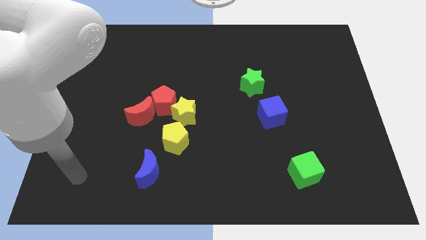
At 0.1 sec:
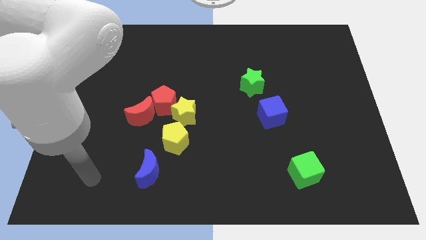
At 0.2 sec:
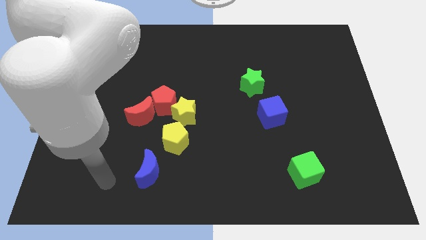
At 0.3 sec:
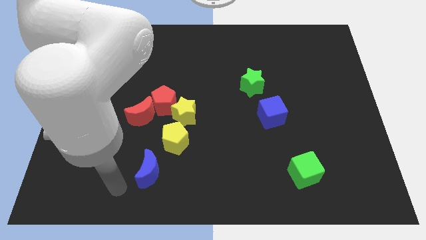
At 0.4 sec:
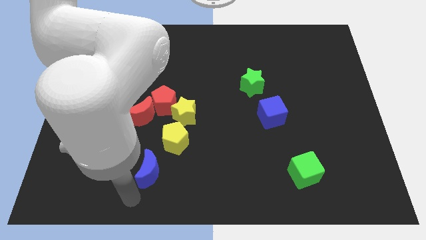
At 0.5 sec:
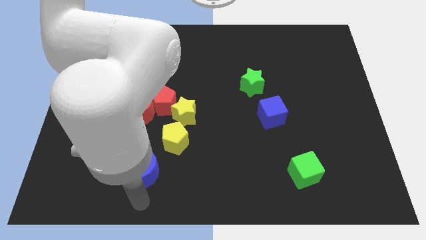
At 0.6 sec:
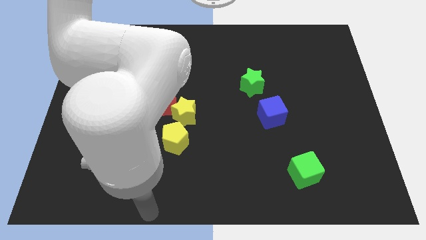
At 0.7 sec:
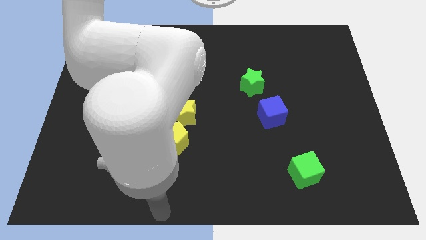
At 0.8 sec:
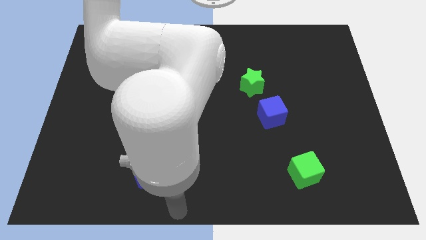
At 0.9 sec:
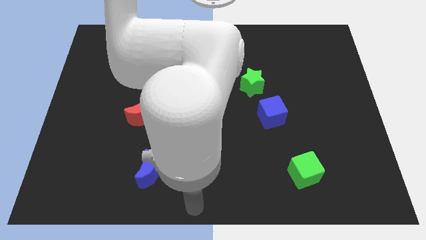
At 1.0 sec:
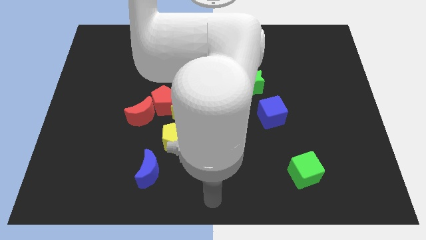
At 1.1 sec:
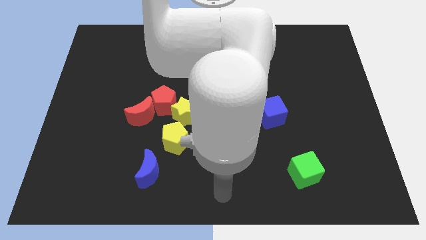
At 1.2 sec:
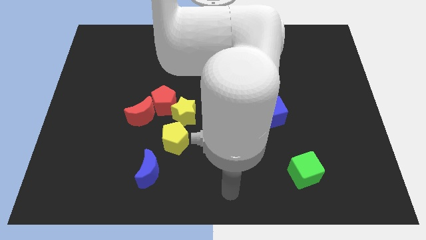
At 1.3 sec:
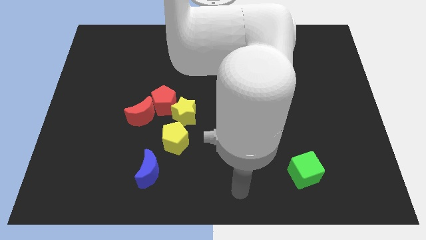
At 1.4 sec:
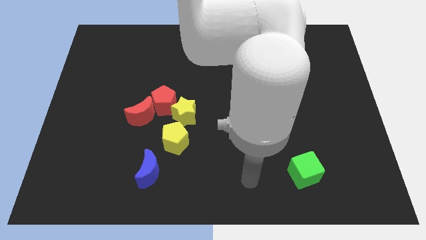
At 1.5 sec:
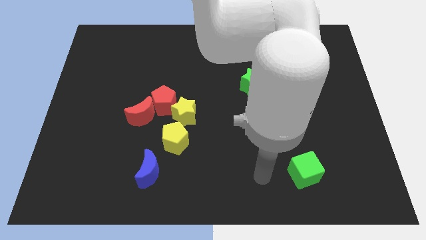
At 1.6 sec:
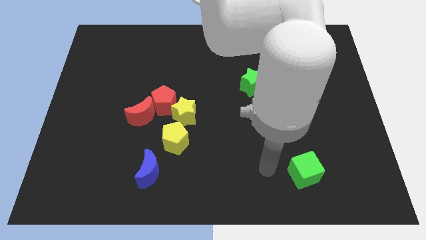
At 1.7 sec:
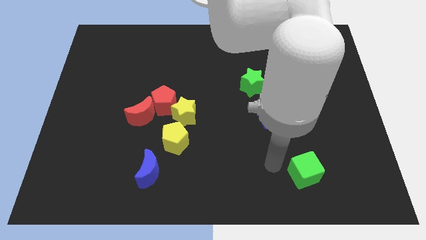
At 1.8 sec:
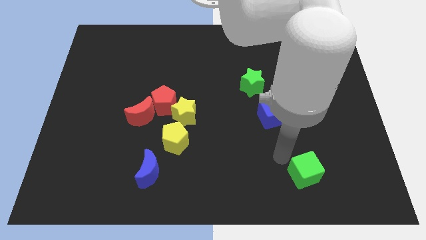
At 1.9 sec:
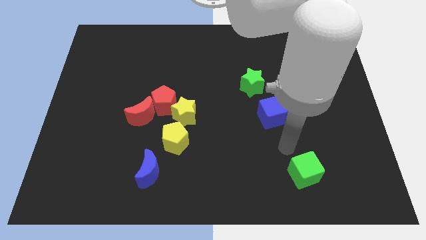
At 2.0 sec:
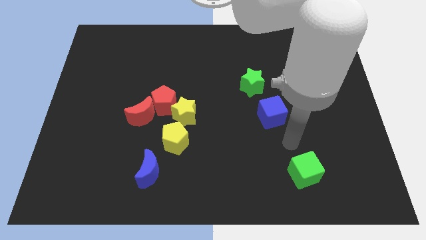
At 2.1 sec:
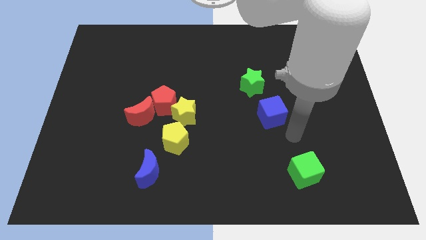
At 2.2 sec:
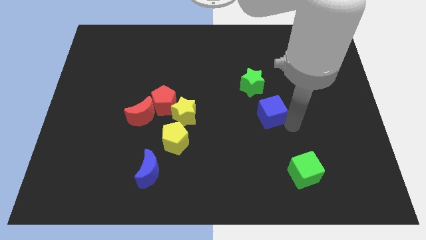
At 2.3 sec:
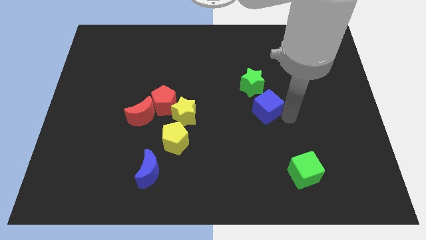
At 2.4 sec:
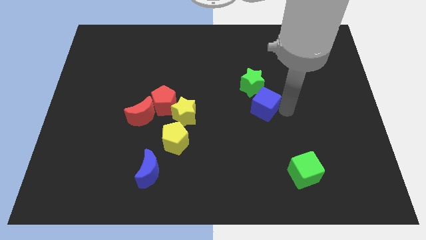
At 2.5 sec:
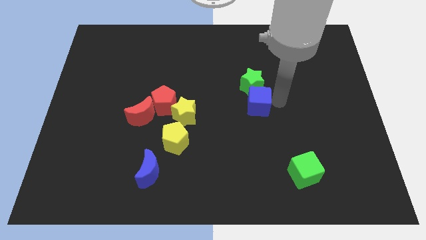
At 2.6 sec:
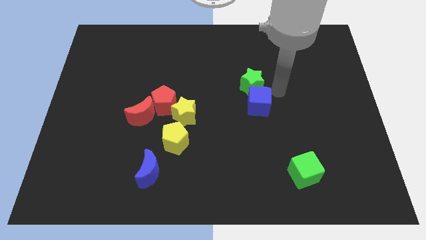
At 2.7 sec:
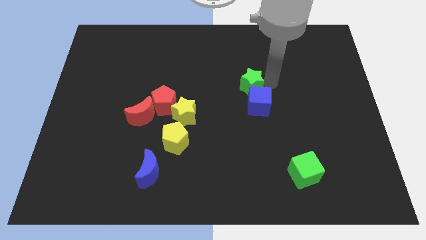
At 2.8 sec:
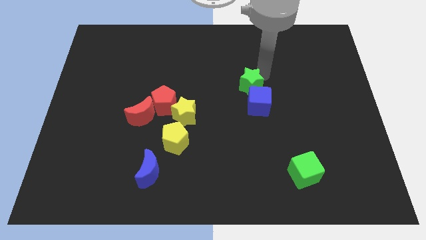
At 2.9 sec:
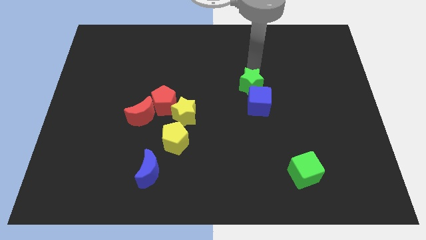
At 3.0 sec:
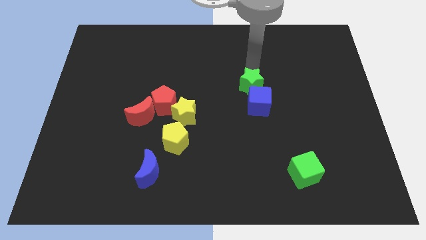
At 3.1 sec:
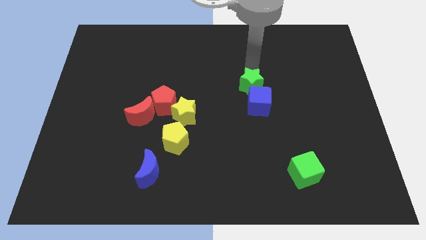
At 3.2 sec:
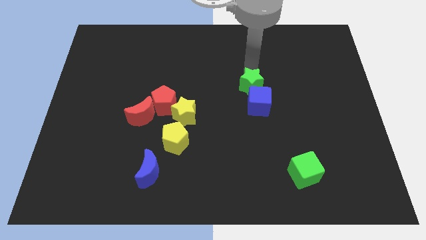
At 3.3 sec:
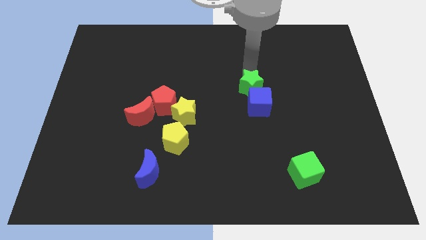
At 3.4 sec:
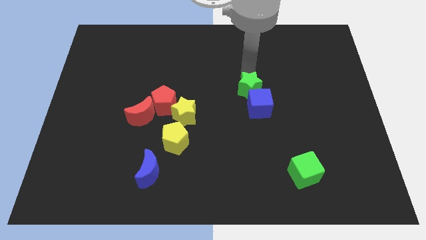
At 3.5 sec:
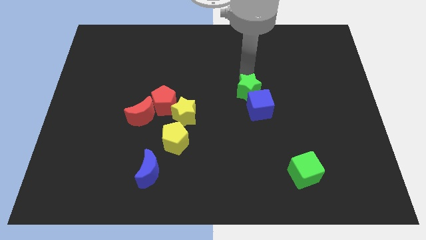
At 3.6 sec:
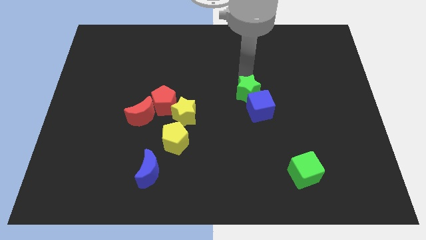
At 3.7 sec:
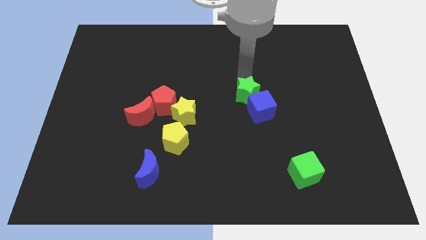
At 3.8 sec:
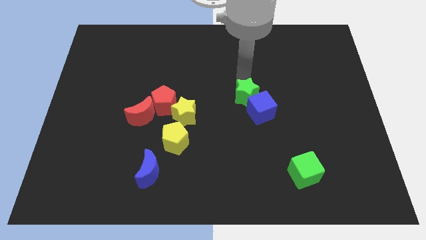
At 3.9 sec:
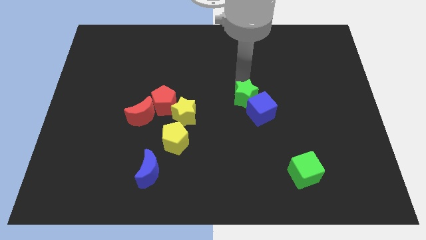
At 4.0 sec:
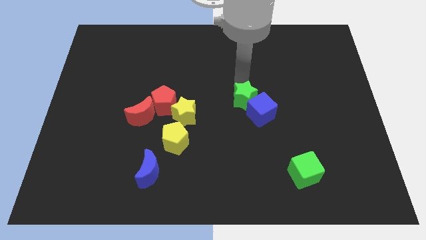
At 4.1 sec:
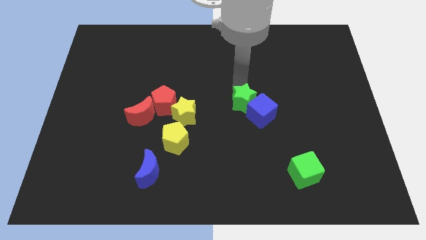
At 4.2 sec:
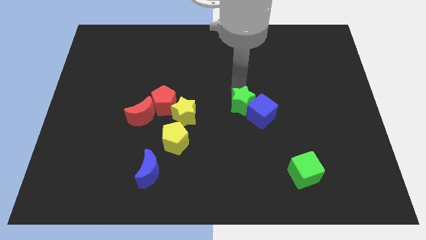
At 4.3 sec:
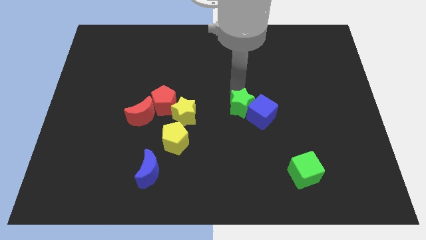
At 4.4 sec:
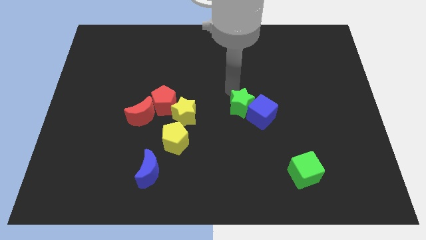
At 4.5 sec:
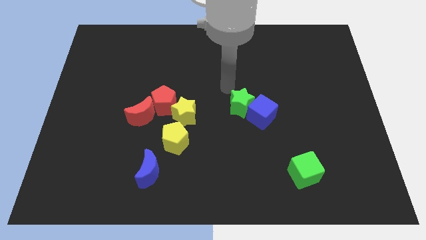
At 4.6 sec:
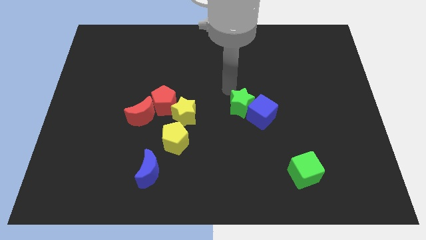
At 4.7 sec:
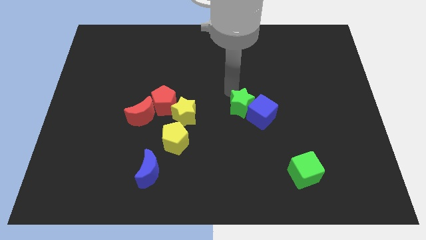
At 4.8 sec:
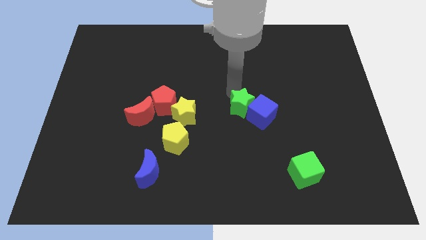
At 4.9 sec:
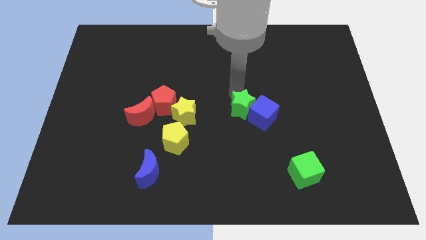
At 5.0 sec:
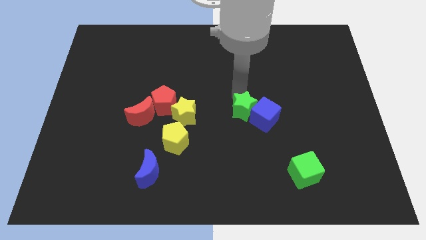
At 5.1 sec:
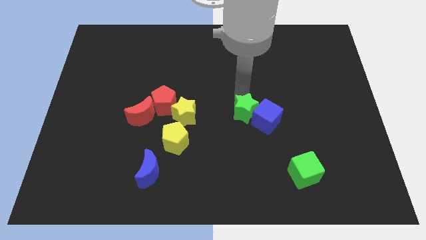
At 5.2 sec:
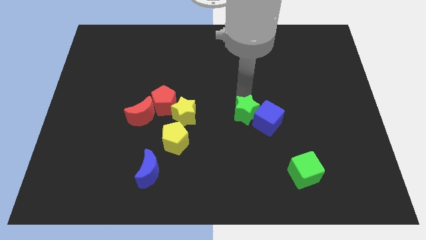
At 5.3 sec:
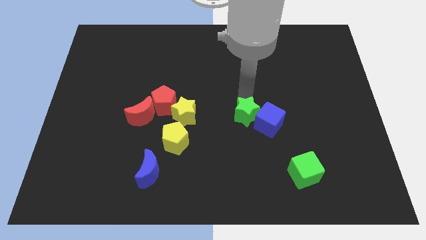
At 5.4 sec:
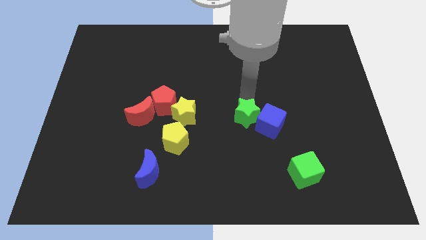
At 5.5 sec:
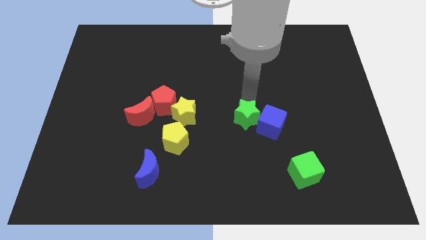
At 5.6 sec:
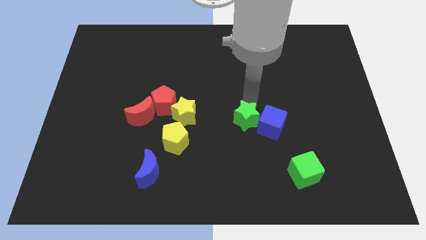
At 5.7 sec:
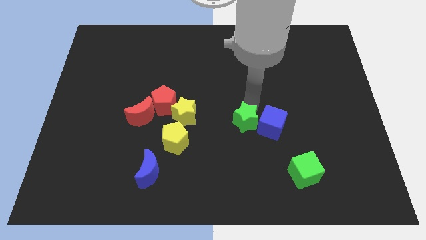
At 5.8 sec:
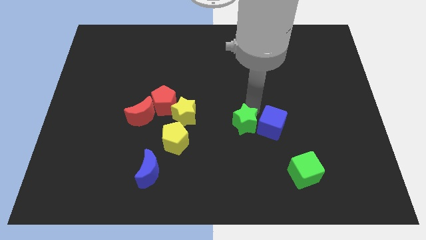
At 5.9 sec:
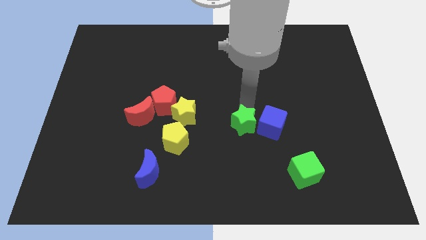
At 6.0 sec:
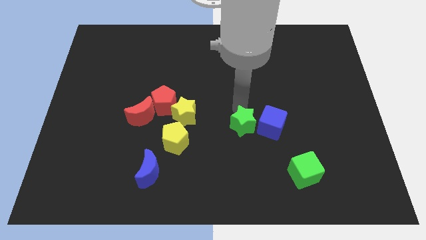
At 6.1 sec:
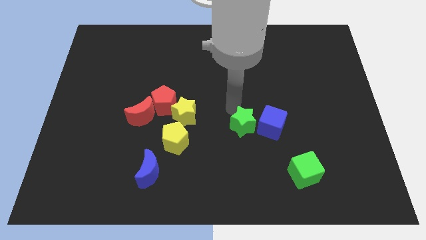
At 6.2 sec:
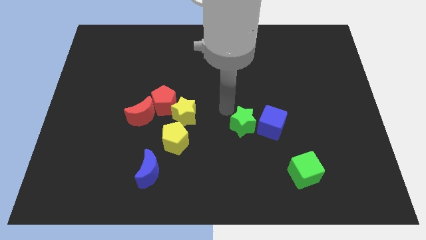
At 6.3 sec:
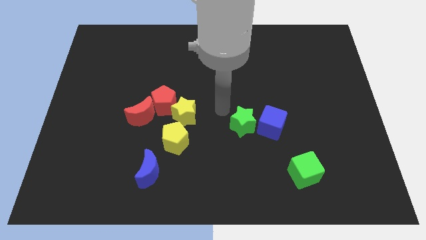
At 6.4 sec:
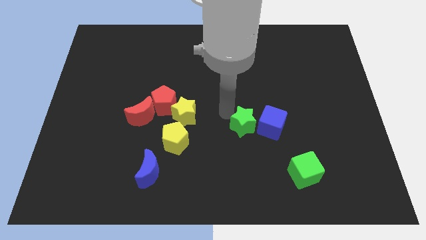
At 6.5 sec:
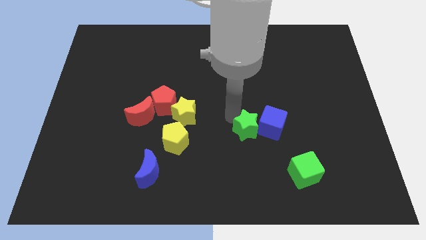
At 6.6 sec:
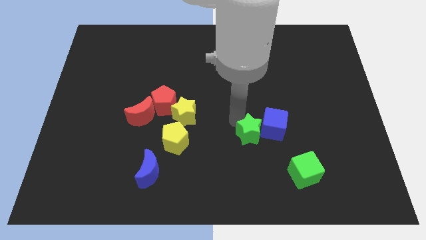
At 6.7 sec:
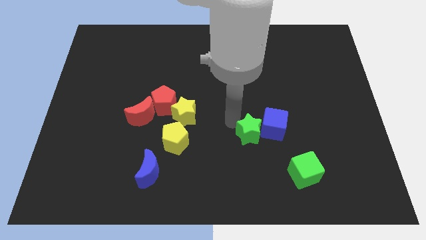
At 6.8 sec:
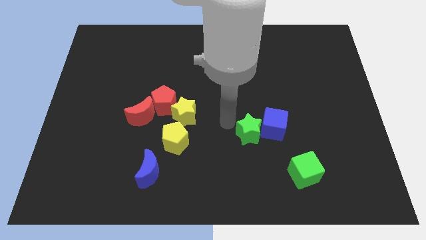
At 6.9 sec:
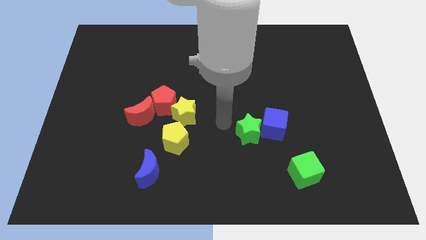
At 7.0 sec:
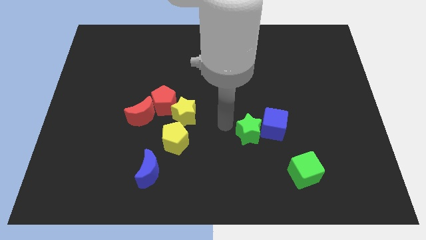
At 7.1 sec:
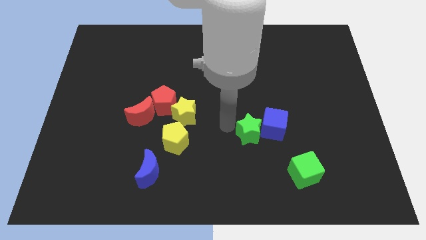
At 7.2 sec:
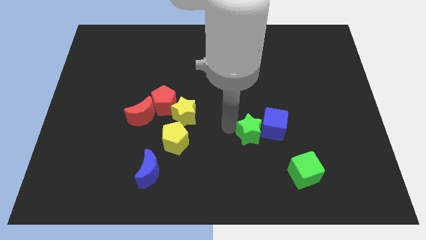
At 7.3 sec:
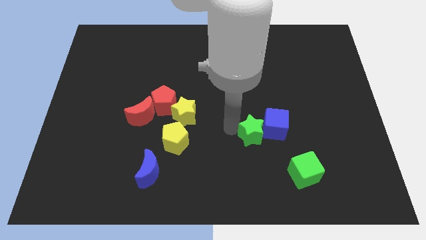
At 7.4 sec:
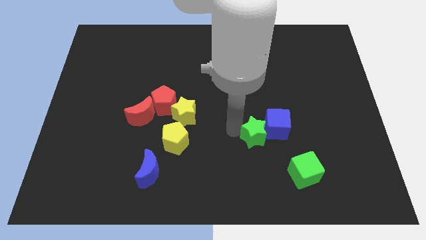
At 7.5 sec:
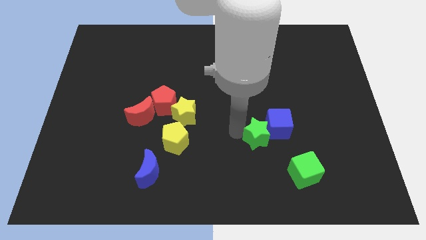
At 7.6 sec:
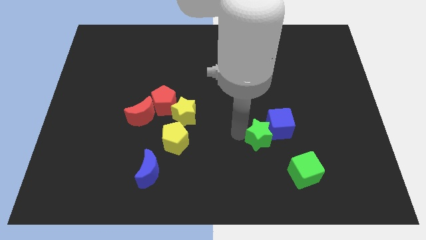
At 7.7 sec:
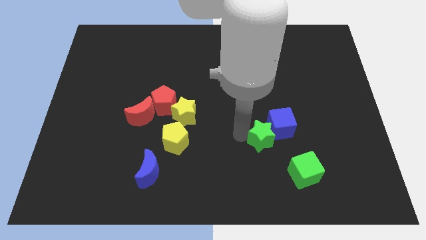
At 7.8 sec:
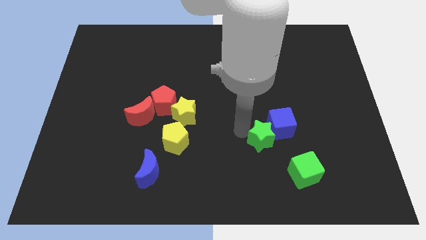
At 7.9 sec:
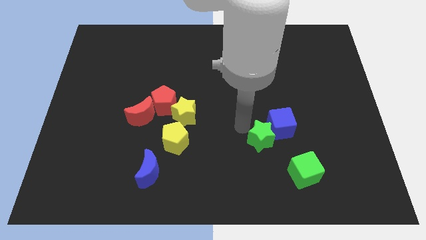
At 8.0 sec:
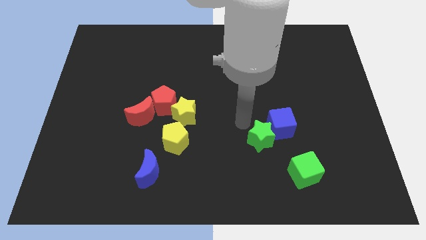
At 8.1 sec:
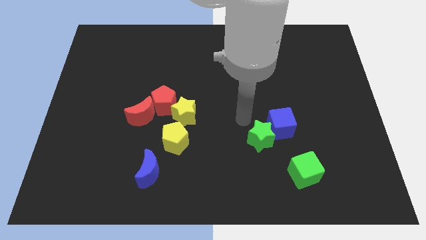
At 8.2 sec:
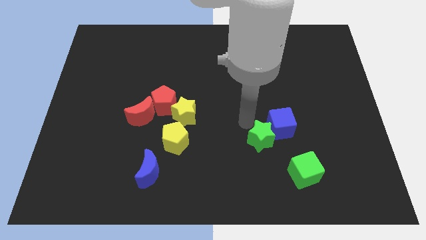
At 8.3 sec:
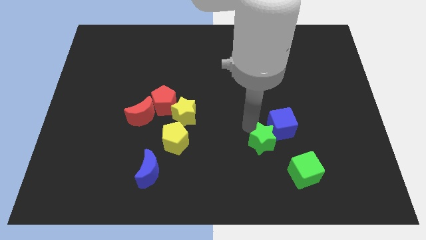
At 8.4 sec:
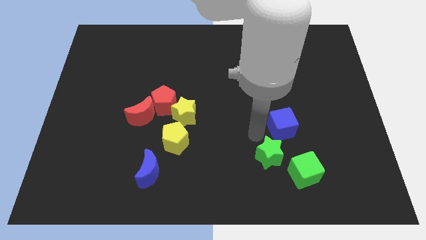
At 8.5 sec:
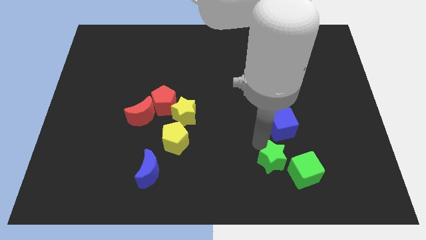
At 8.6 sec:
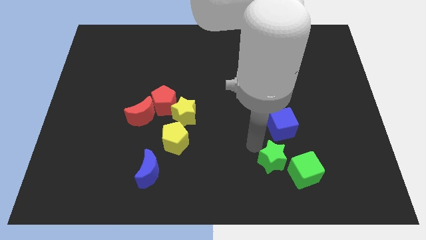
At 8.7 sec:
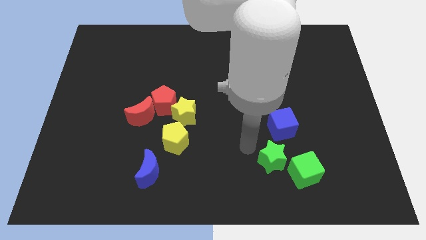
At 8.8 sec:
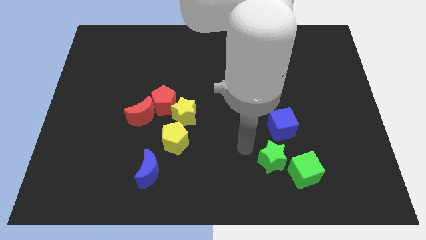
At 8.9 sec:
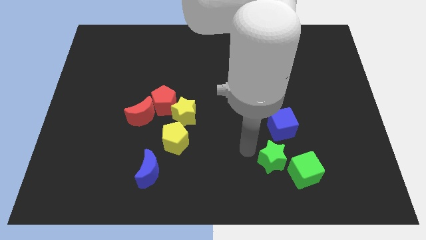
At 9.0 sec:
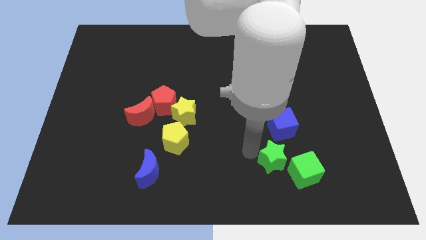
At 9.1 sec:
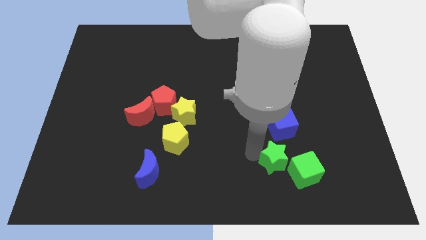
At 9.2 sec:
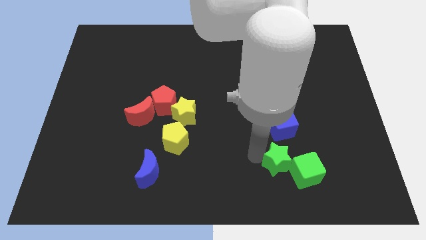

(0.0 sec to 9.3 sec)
put the green star towards the green cube
